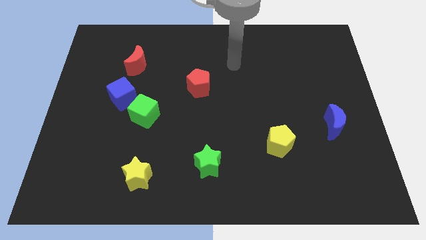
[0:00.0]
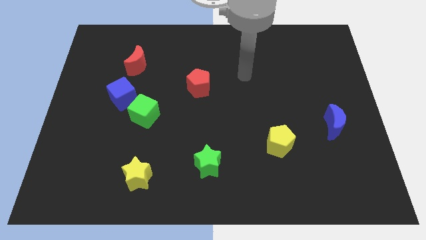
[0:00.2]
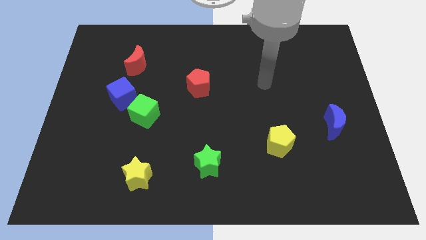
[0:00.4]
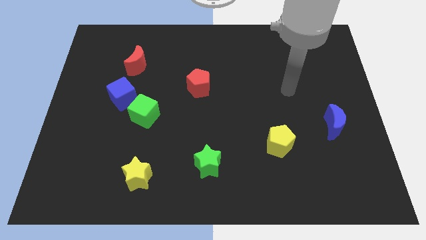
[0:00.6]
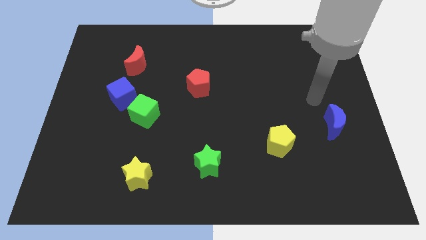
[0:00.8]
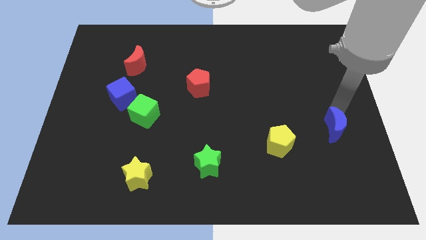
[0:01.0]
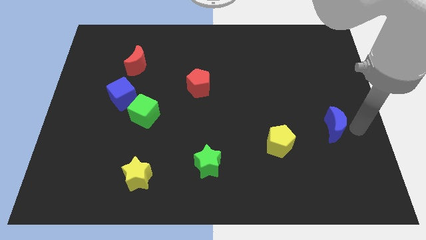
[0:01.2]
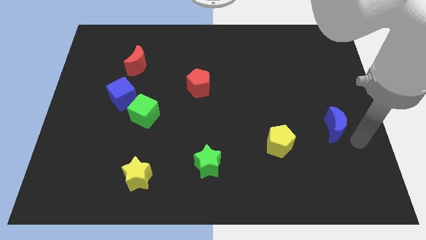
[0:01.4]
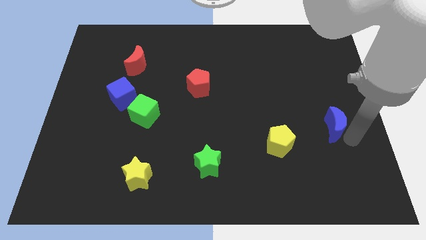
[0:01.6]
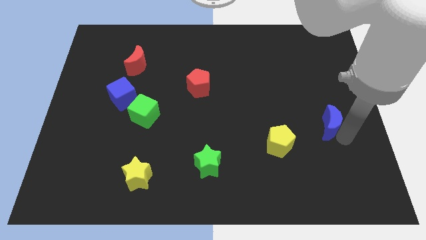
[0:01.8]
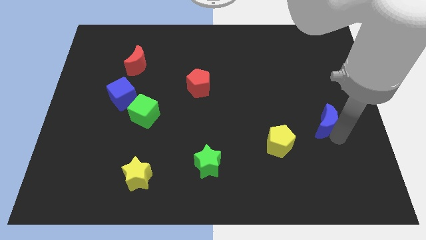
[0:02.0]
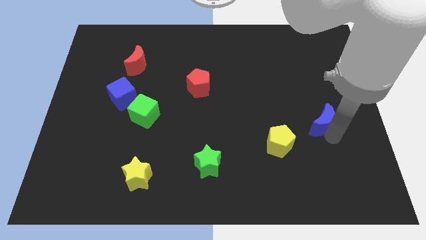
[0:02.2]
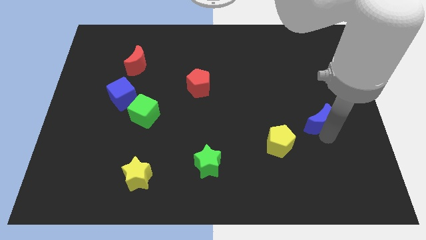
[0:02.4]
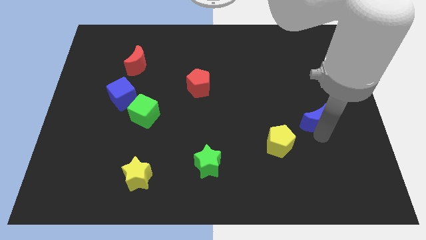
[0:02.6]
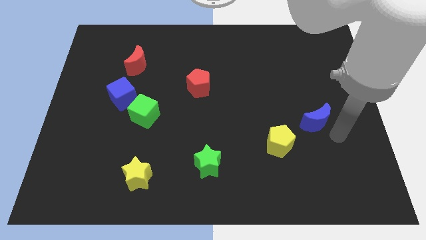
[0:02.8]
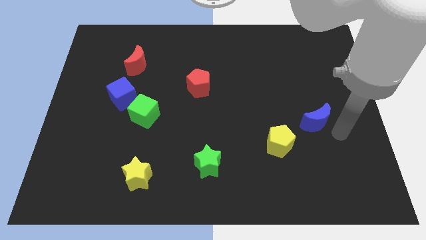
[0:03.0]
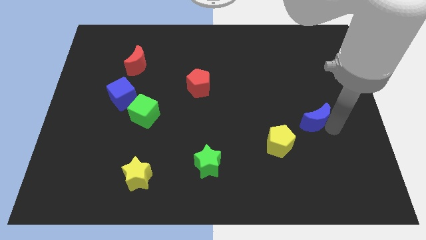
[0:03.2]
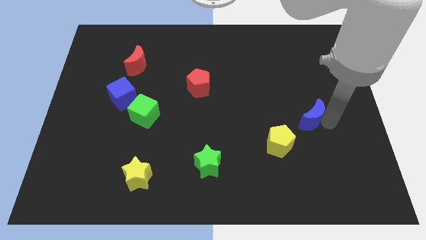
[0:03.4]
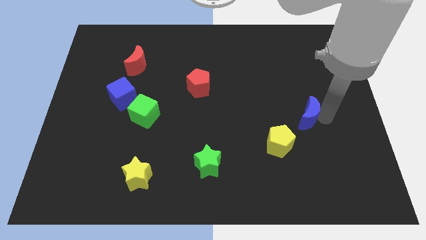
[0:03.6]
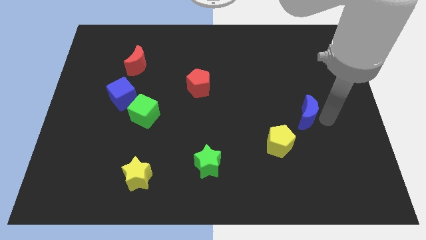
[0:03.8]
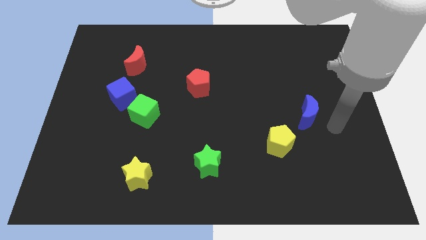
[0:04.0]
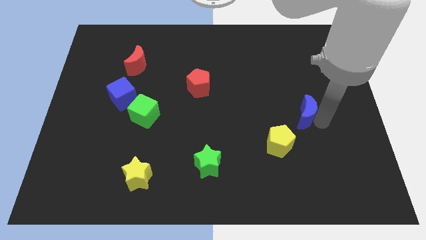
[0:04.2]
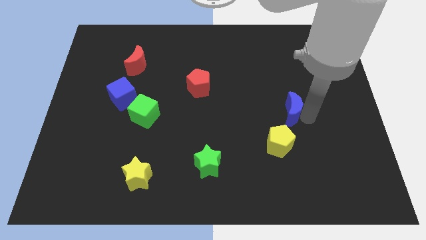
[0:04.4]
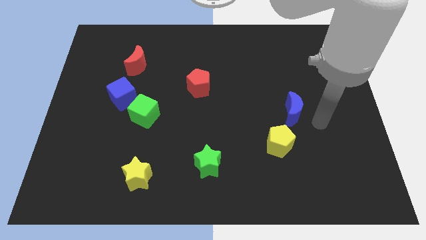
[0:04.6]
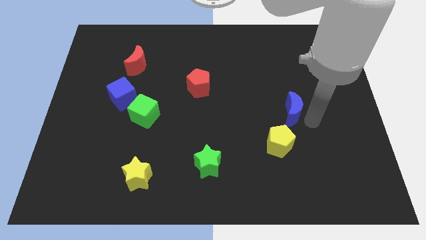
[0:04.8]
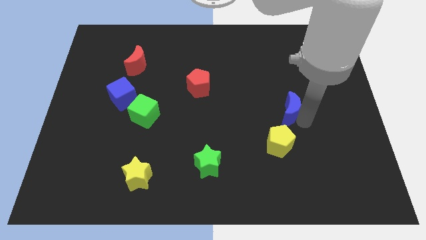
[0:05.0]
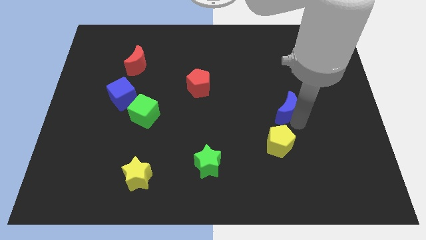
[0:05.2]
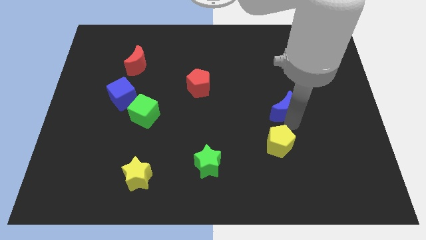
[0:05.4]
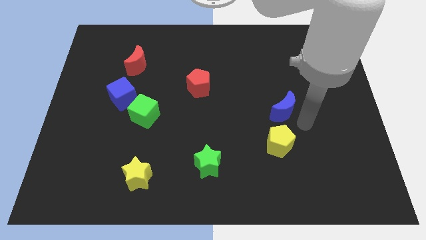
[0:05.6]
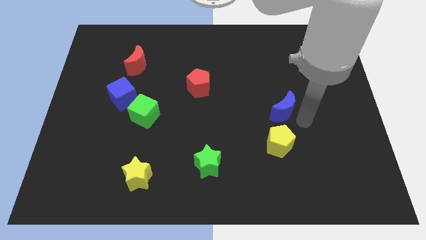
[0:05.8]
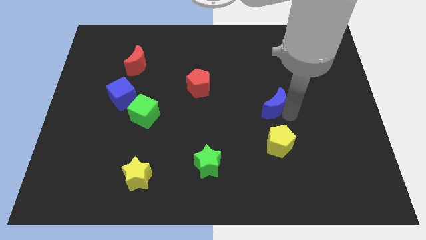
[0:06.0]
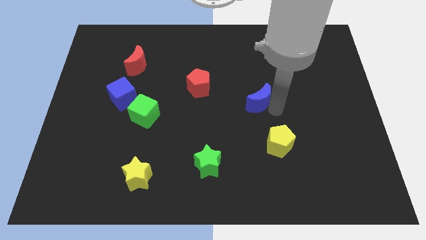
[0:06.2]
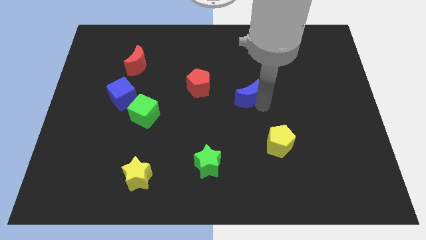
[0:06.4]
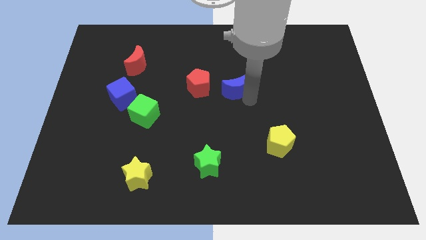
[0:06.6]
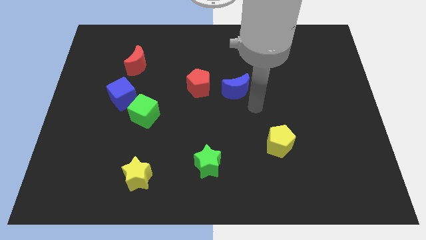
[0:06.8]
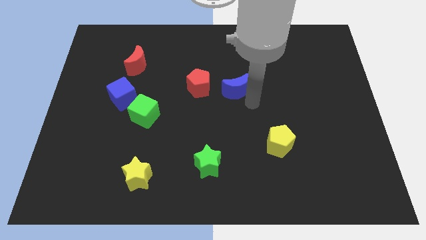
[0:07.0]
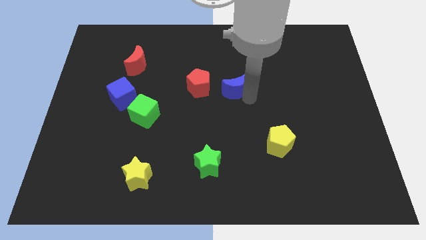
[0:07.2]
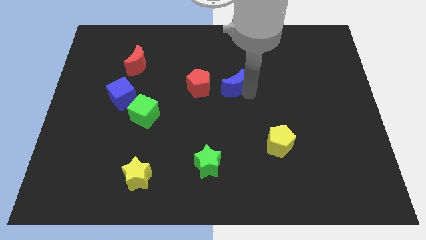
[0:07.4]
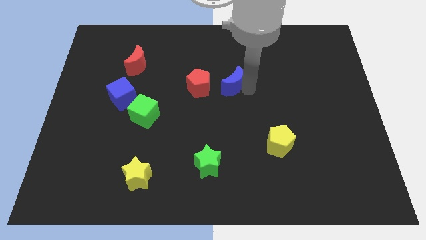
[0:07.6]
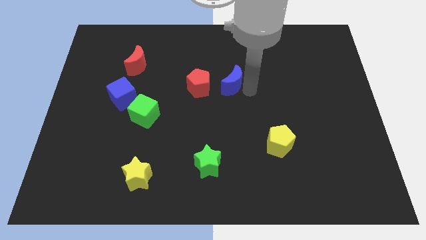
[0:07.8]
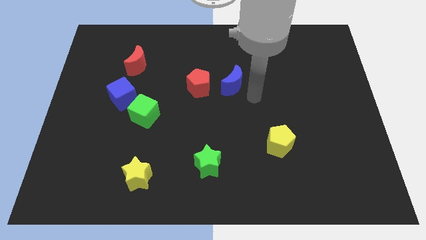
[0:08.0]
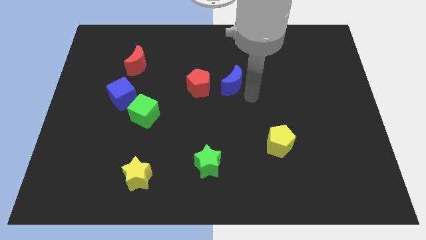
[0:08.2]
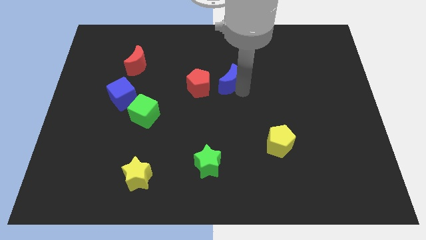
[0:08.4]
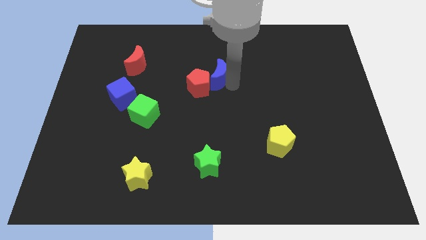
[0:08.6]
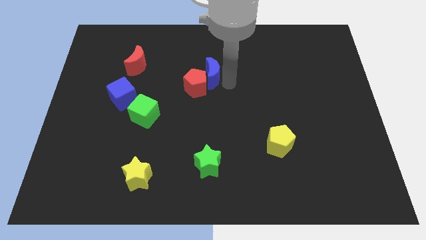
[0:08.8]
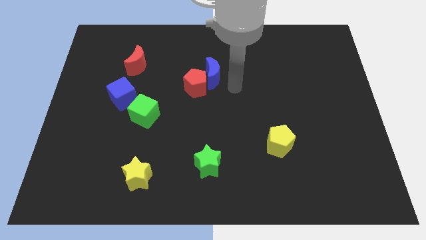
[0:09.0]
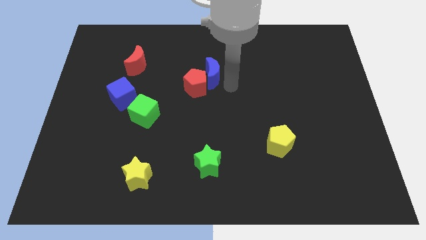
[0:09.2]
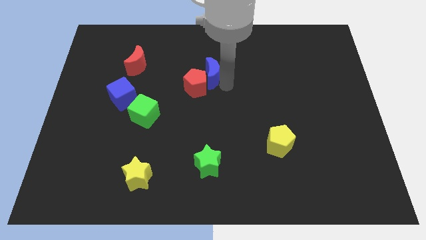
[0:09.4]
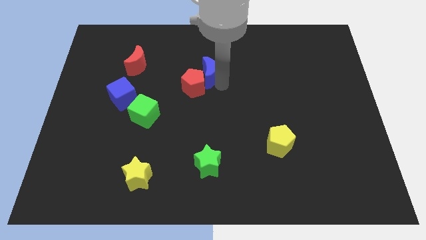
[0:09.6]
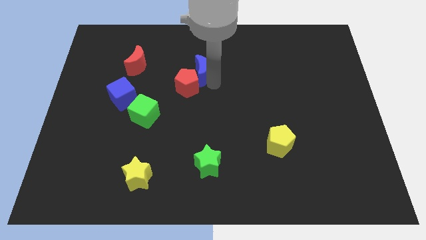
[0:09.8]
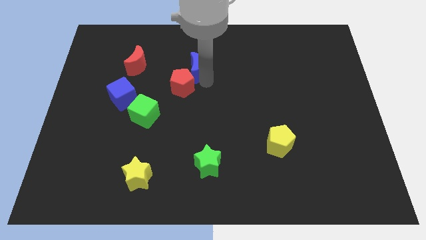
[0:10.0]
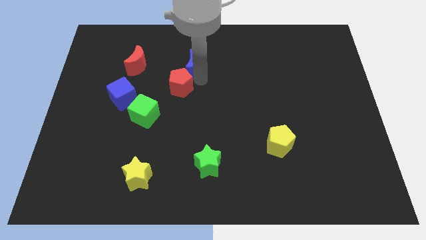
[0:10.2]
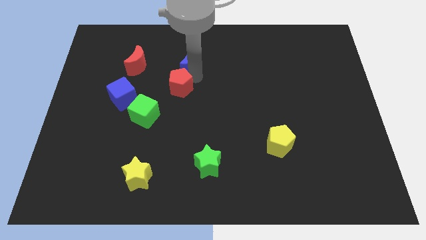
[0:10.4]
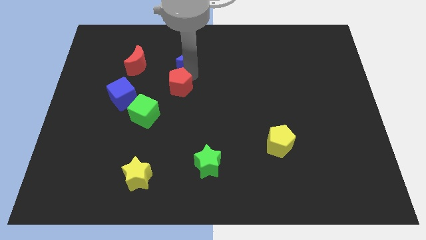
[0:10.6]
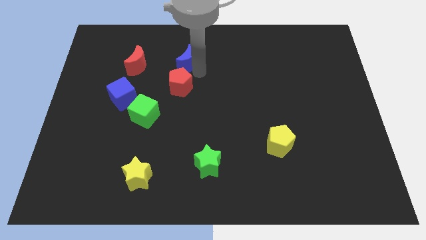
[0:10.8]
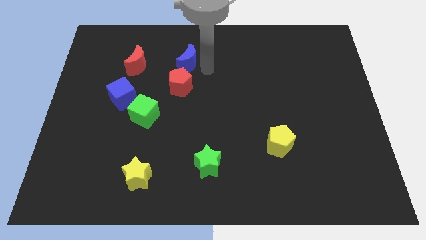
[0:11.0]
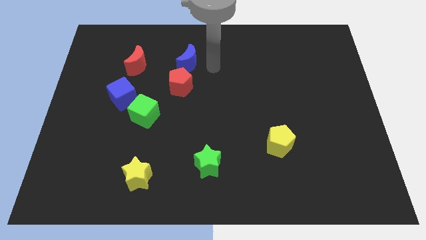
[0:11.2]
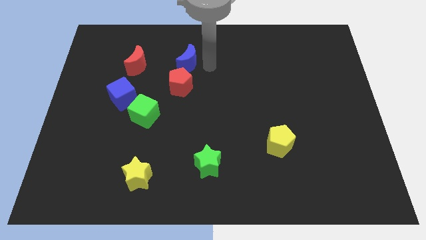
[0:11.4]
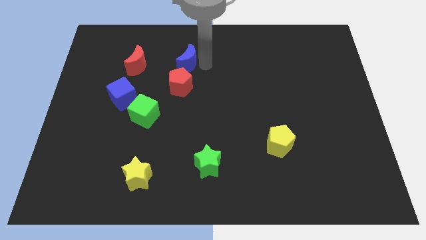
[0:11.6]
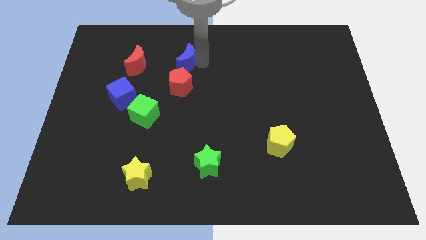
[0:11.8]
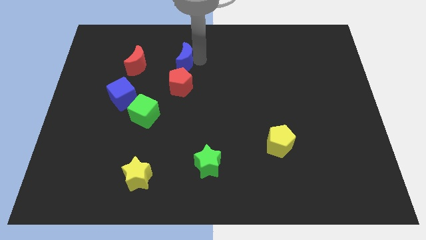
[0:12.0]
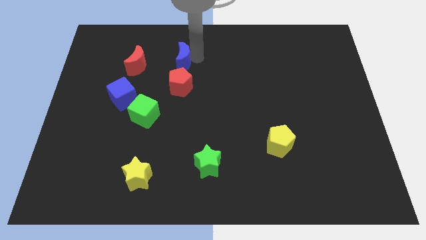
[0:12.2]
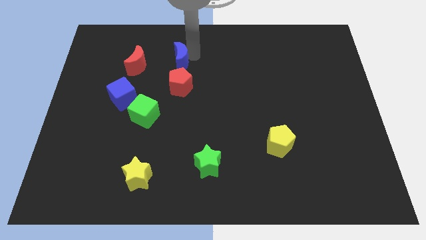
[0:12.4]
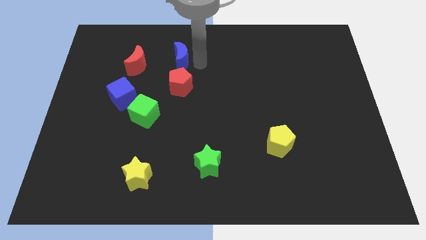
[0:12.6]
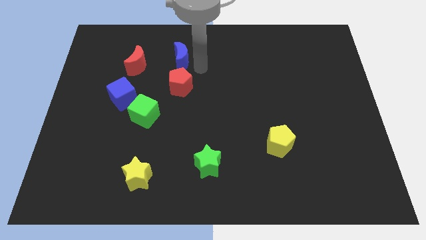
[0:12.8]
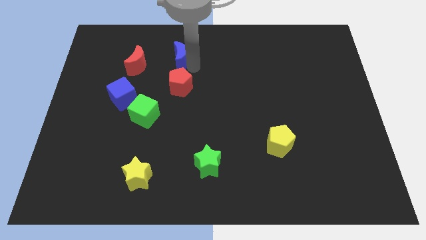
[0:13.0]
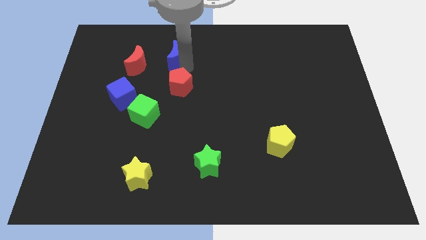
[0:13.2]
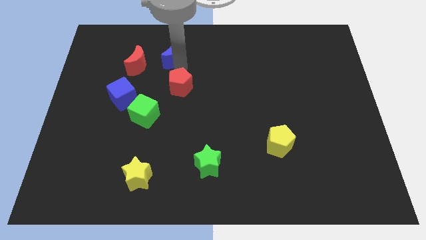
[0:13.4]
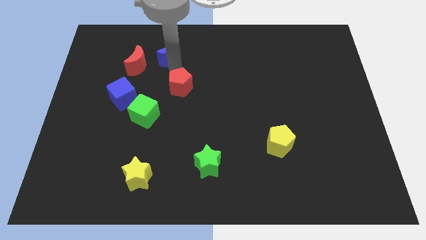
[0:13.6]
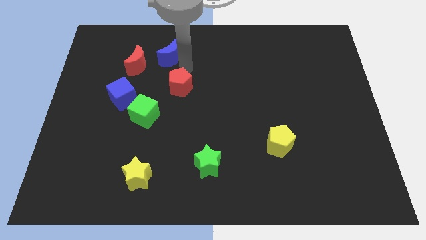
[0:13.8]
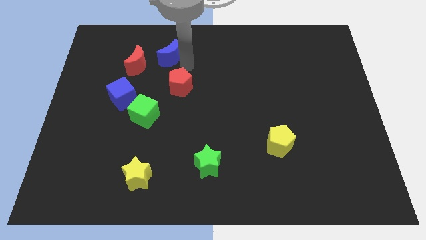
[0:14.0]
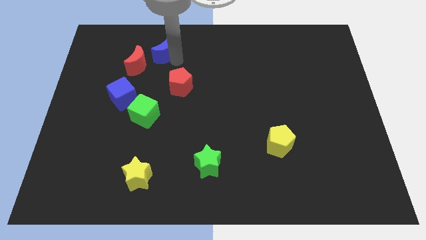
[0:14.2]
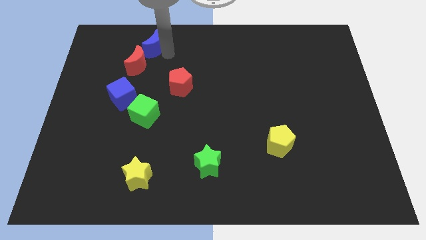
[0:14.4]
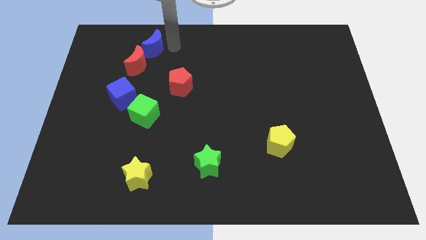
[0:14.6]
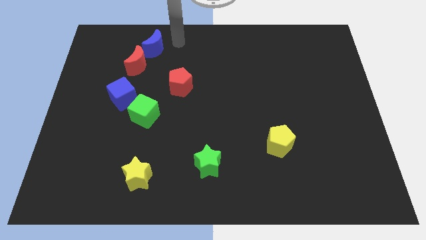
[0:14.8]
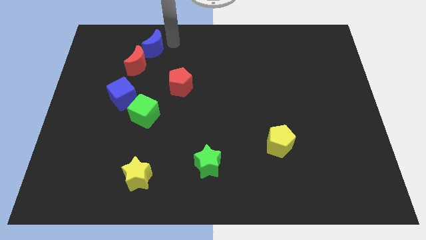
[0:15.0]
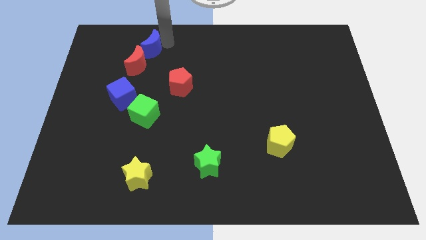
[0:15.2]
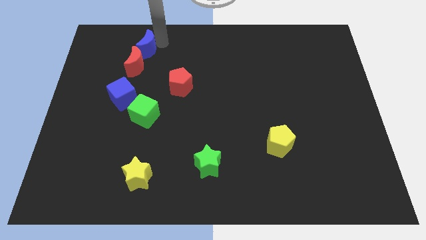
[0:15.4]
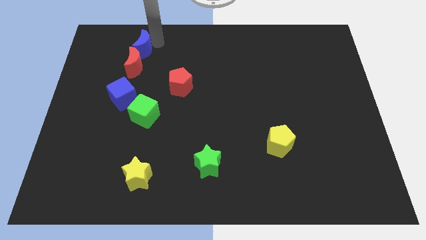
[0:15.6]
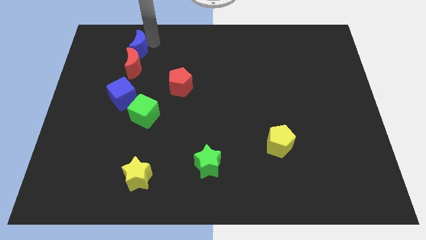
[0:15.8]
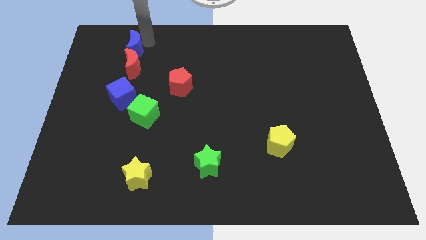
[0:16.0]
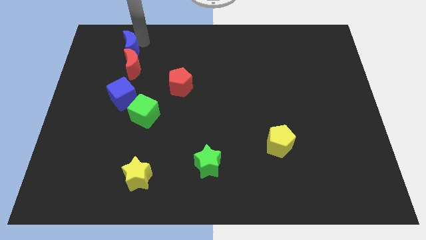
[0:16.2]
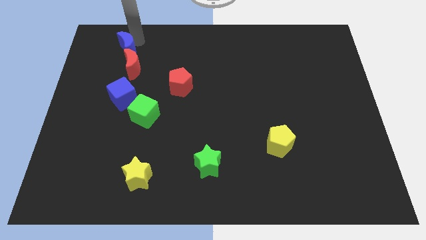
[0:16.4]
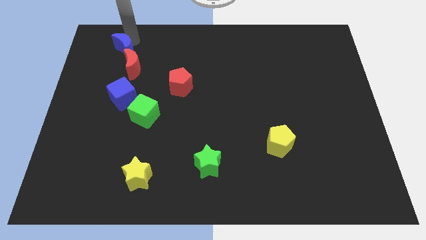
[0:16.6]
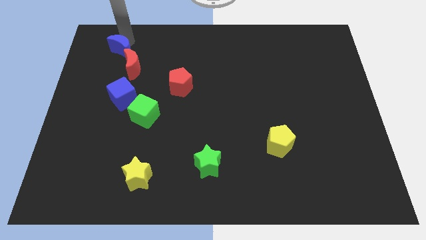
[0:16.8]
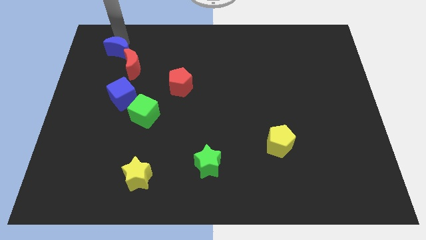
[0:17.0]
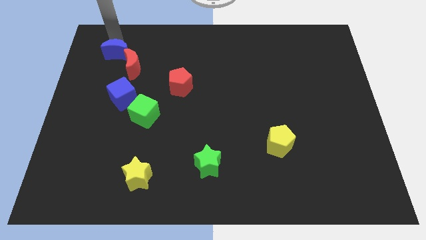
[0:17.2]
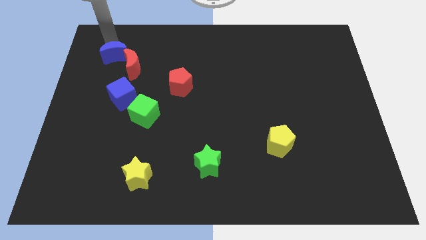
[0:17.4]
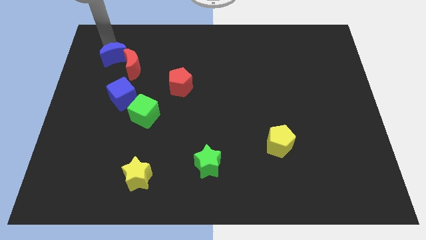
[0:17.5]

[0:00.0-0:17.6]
put the blue moon to the top of the blue cube
